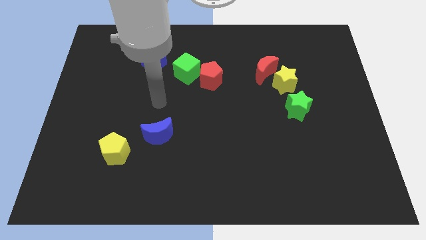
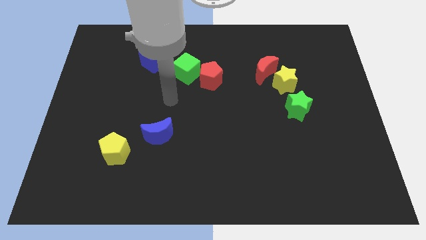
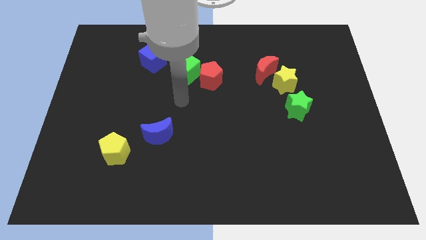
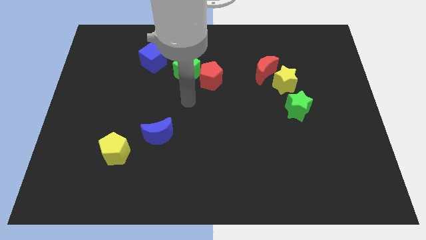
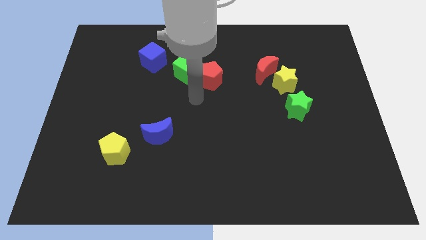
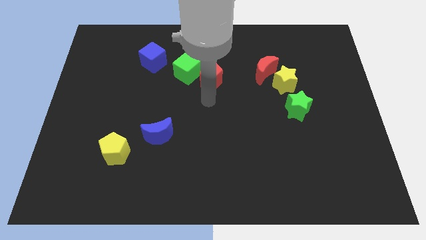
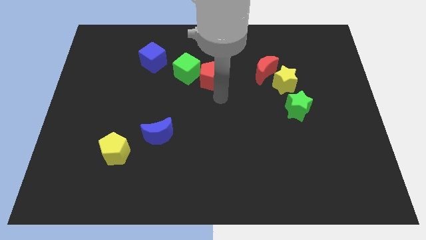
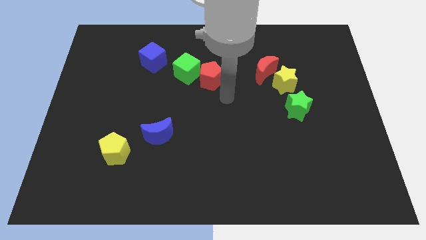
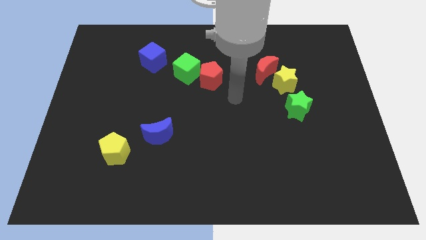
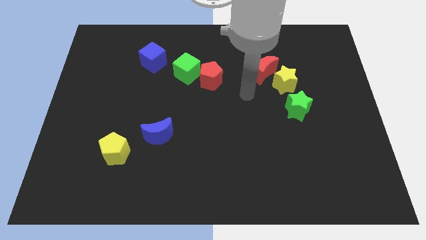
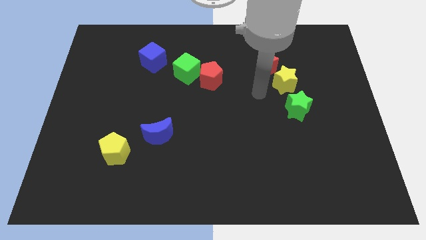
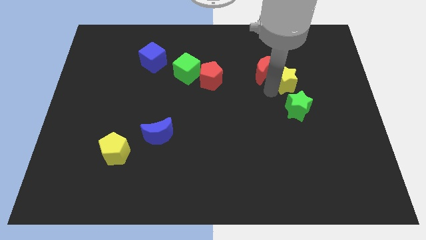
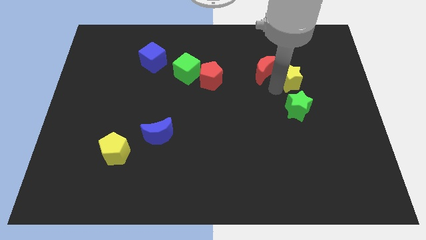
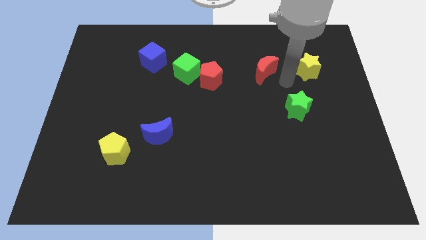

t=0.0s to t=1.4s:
separate the red moon from the yellow star

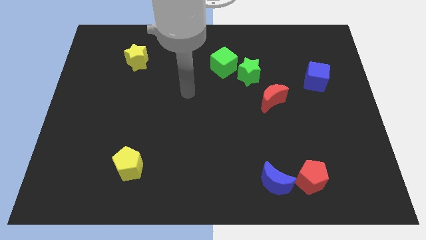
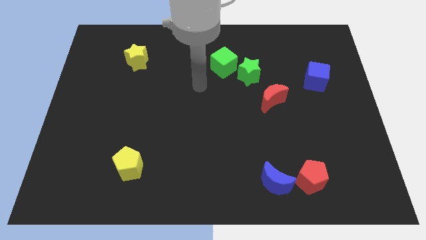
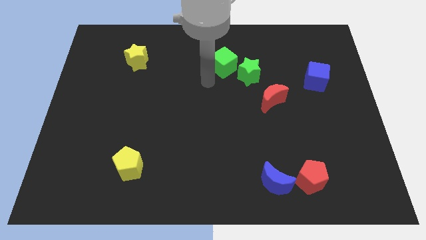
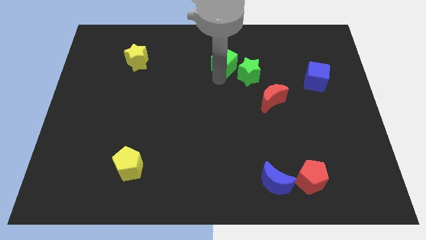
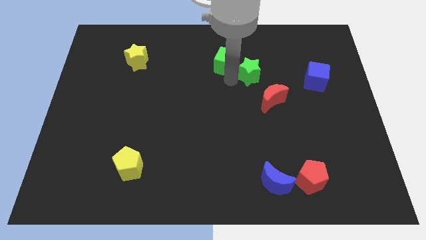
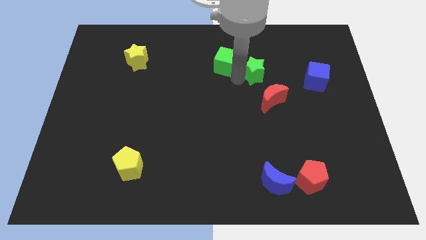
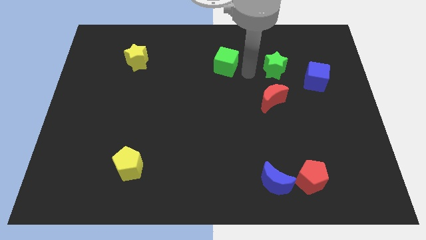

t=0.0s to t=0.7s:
separate the green cube from the green star

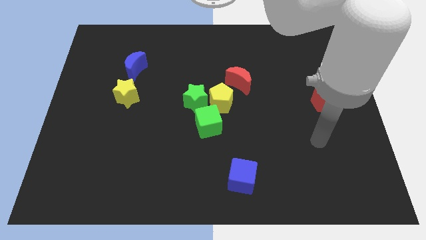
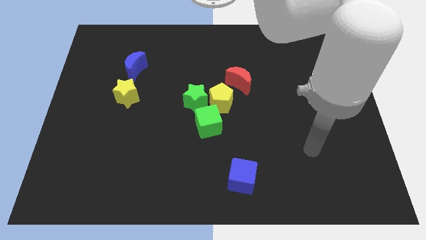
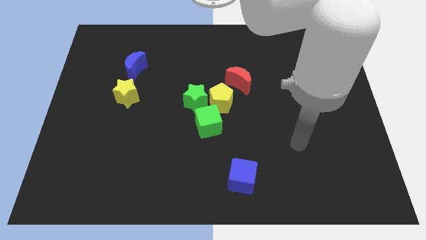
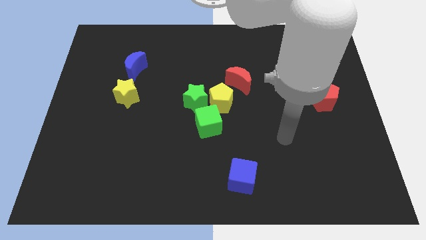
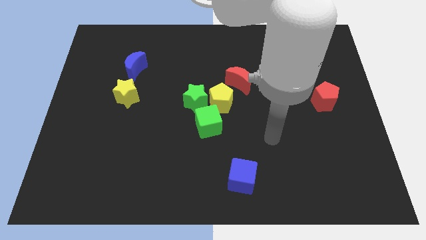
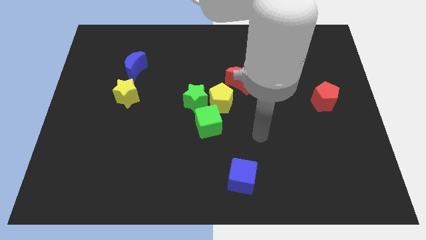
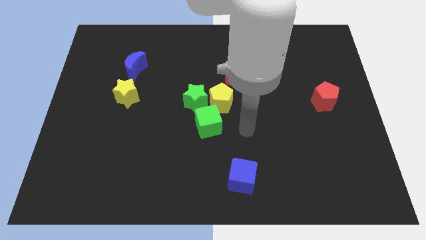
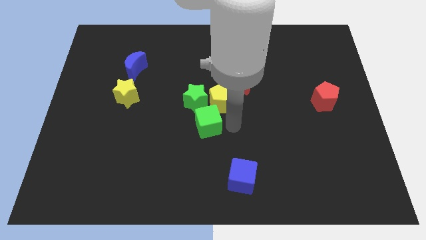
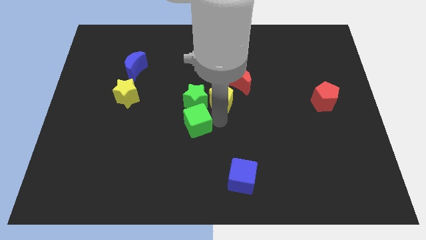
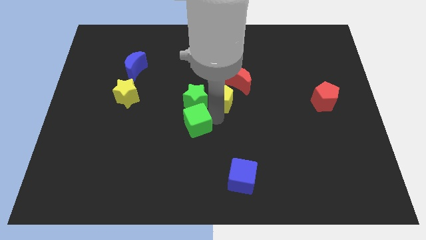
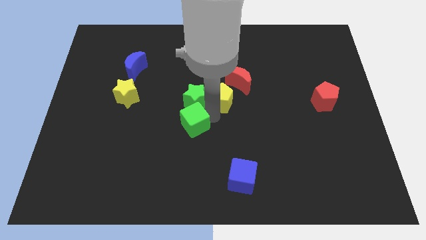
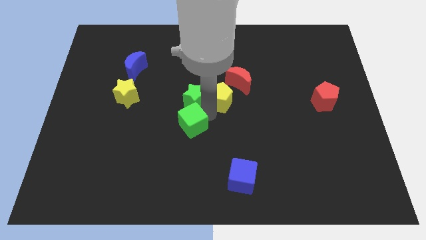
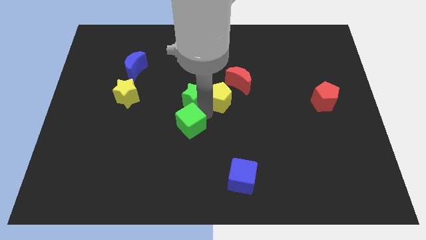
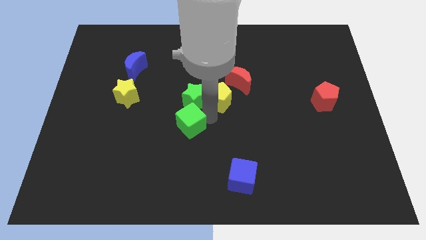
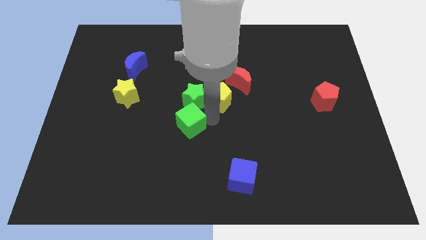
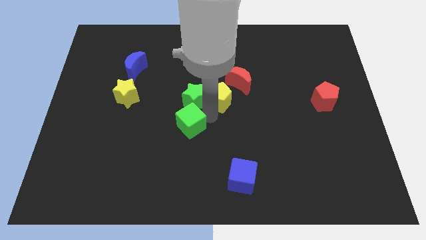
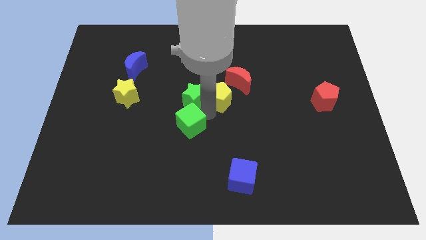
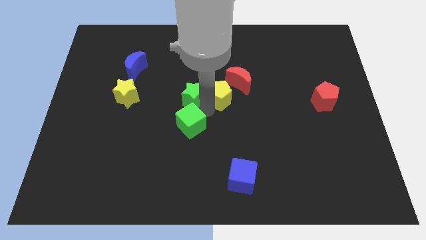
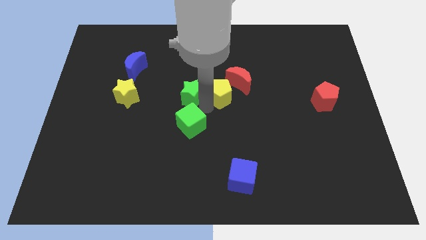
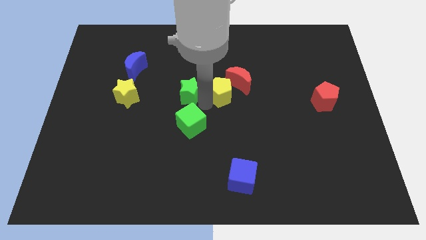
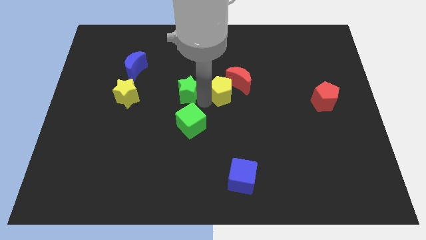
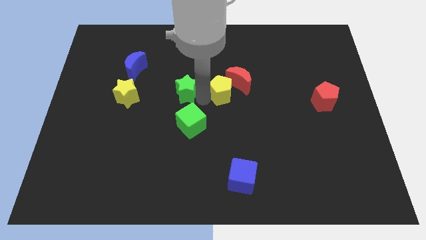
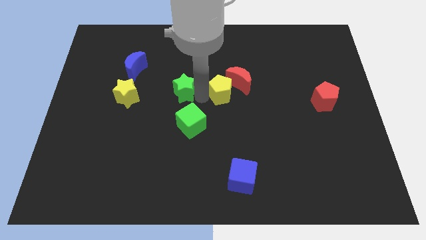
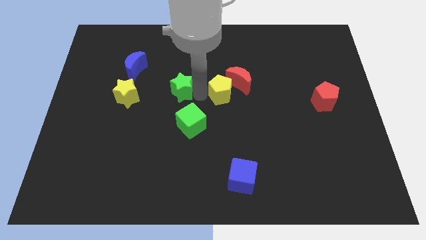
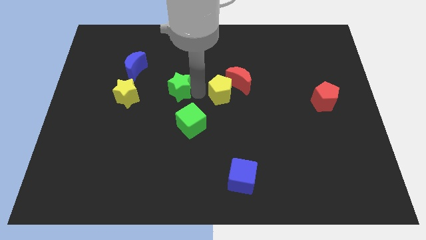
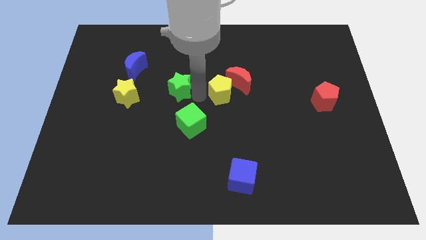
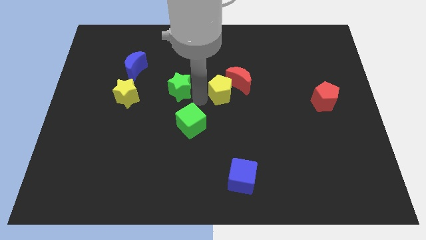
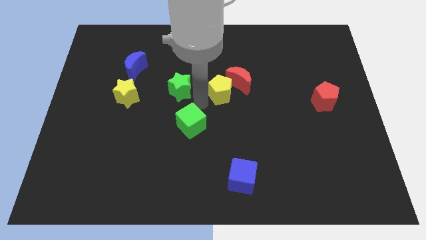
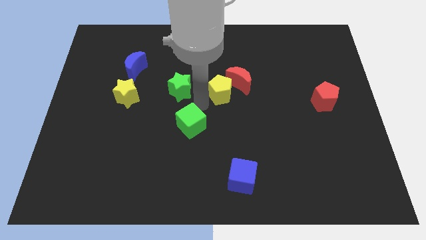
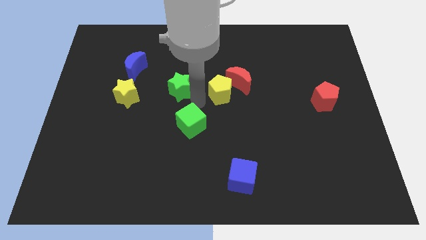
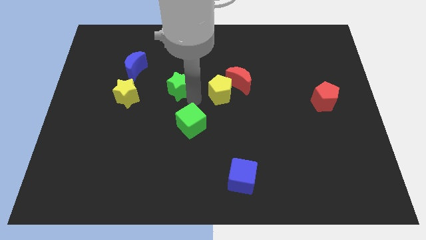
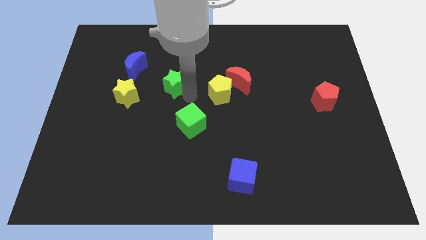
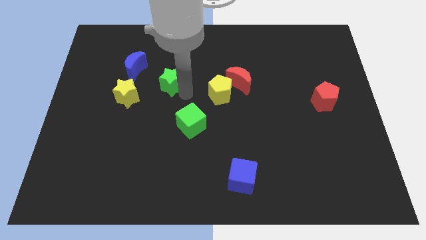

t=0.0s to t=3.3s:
move the green star away from the yellow pentagon and green cube

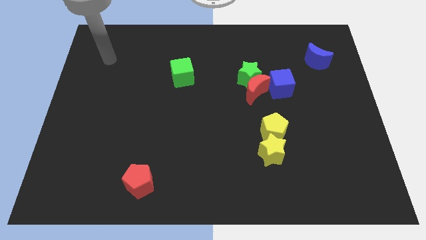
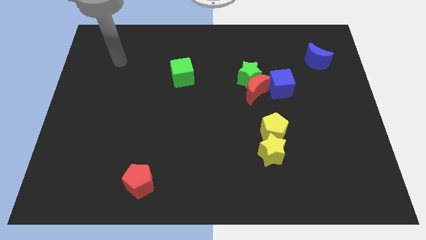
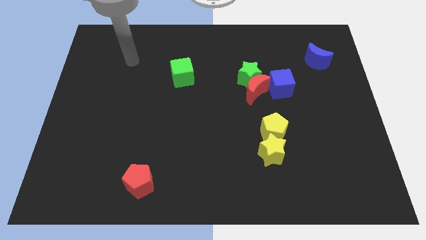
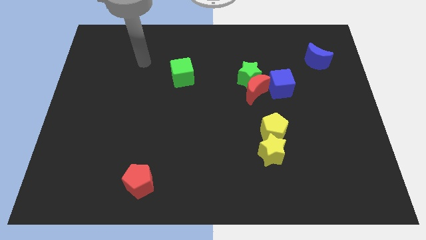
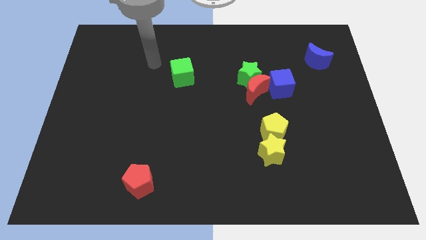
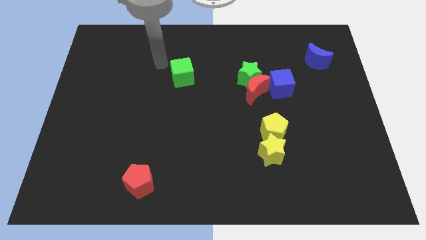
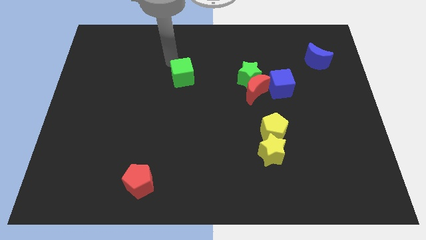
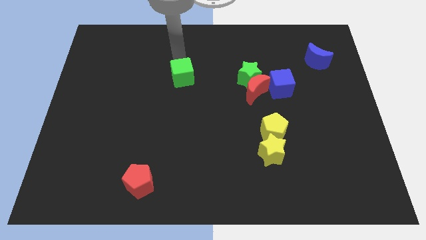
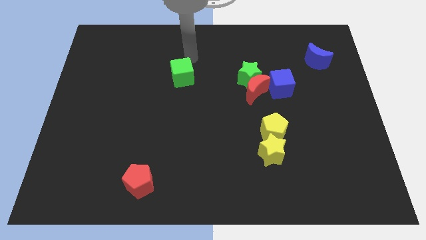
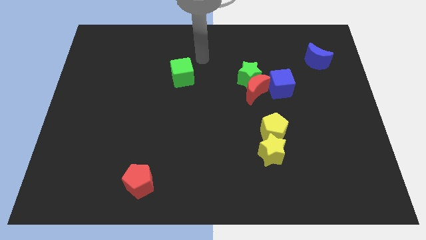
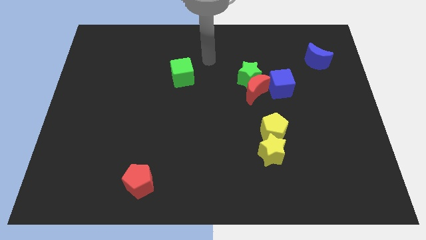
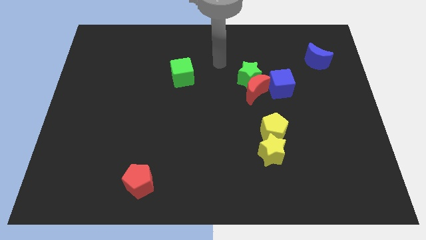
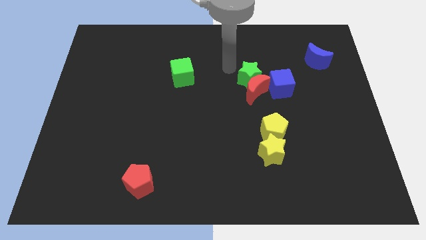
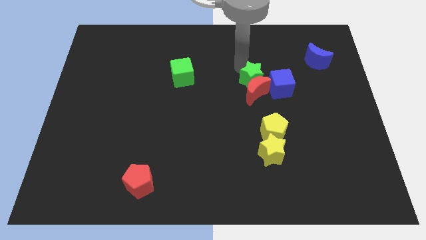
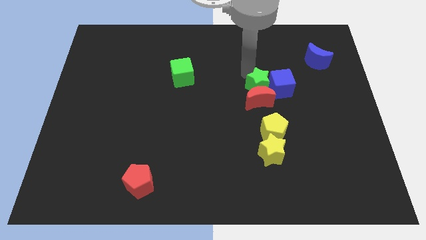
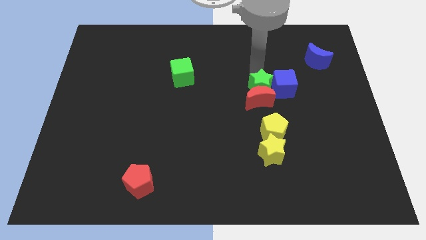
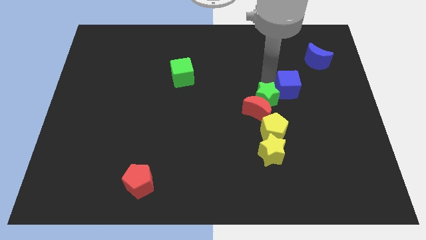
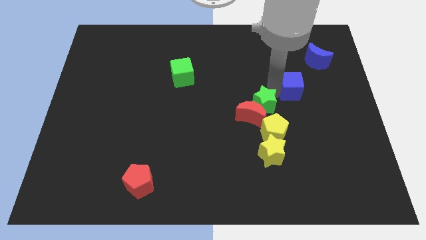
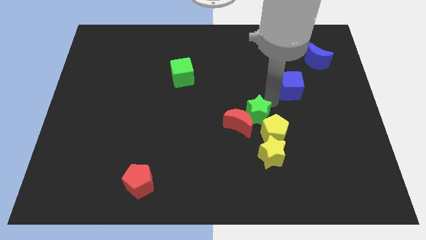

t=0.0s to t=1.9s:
pull the red moon apart from the green star and blue cube

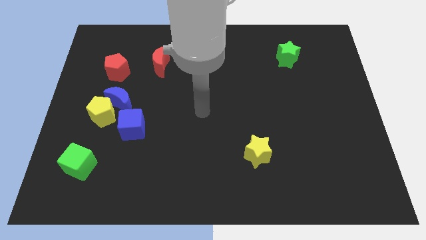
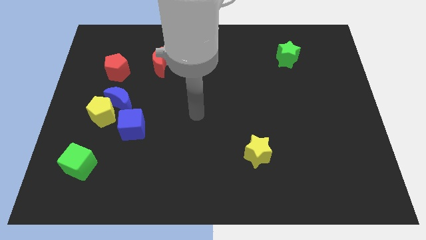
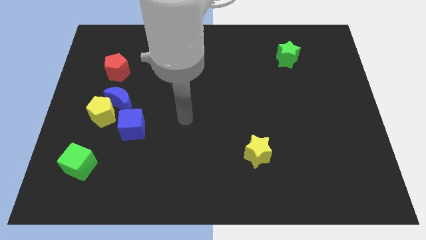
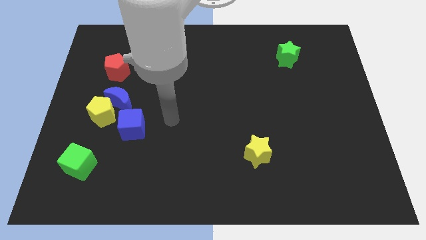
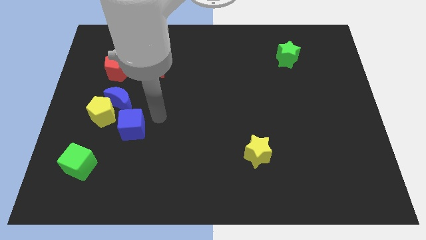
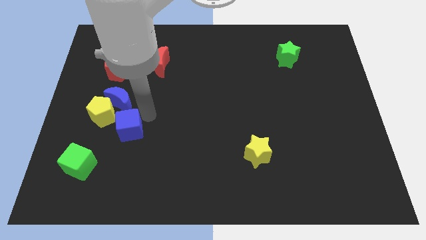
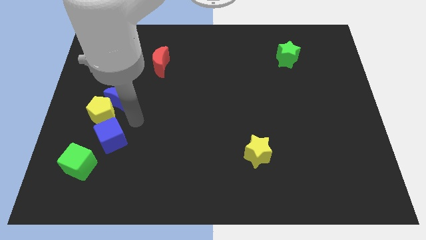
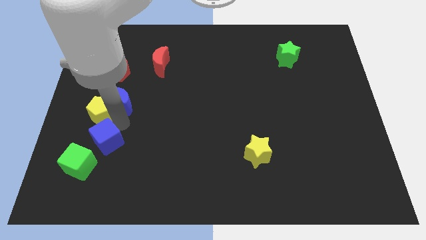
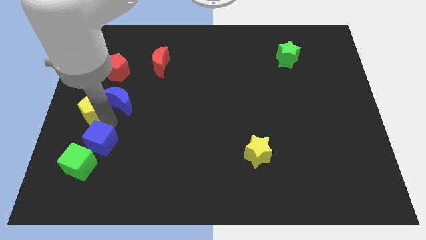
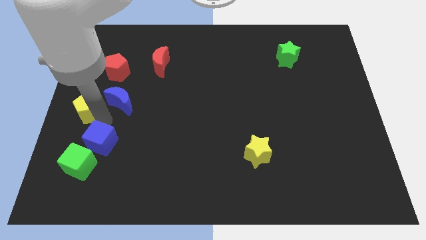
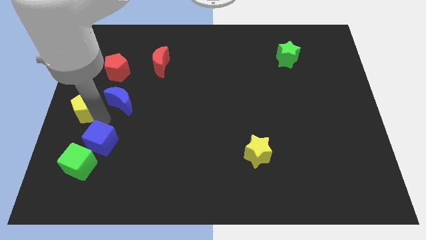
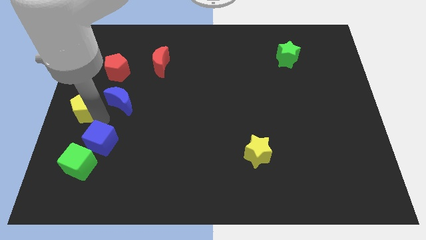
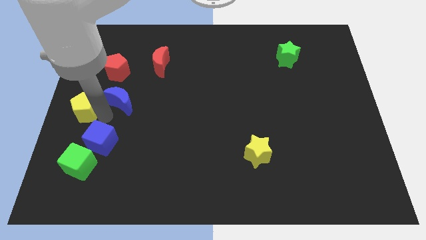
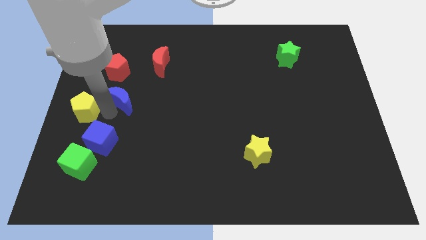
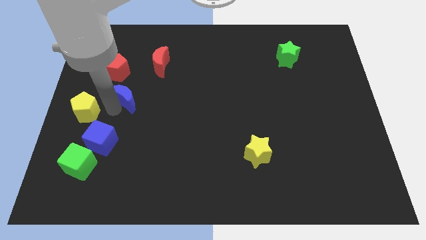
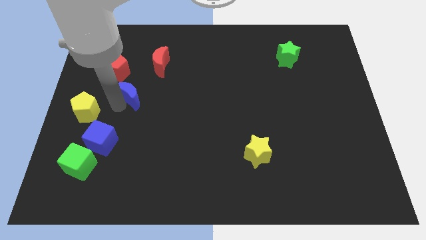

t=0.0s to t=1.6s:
pull the blue moon apart from the yellow pentagon and blue cube

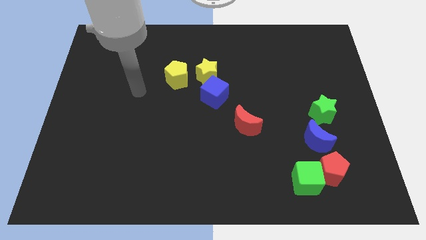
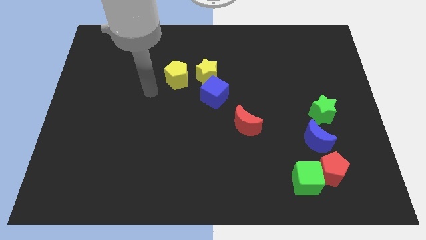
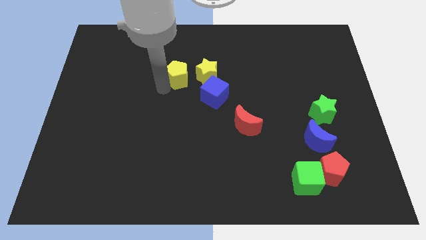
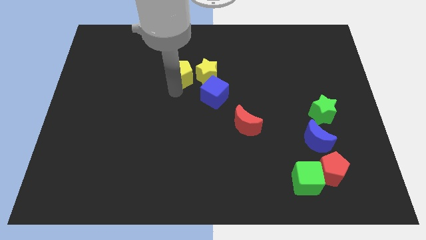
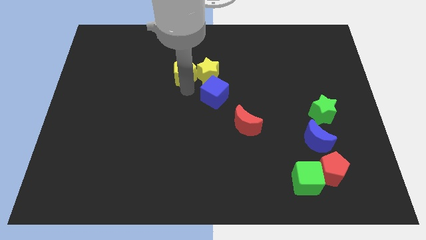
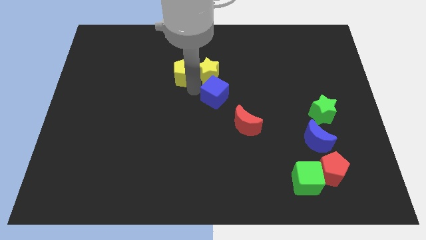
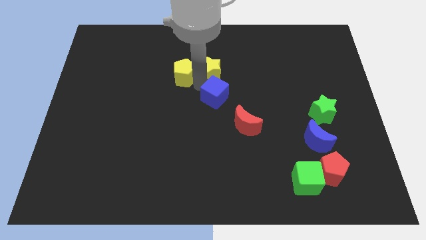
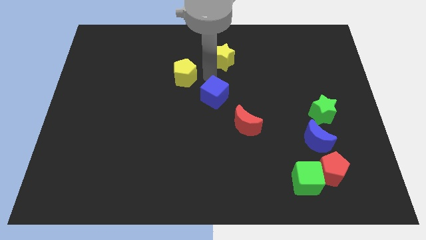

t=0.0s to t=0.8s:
pull the blue cube apart from the yellow star
